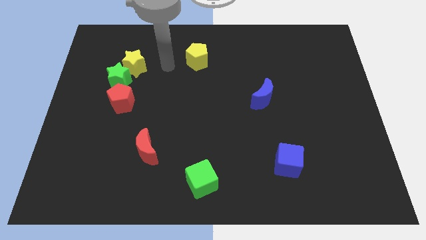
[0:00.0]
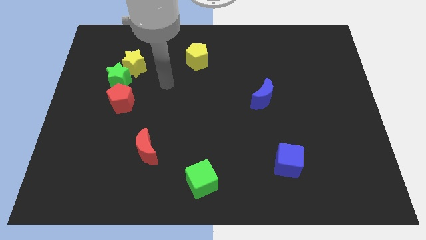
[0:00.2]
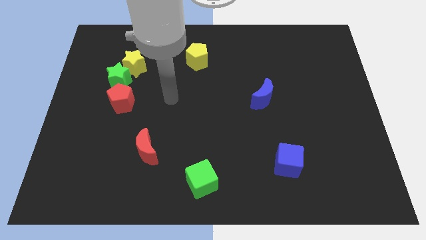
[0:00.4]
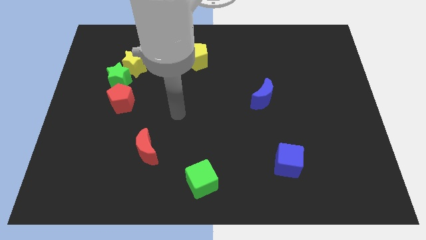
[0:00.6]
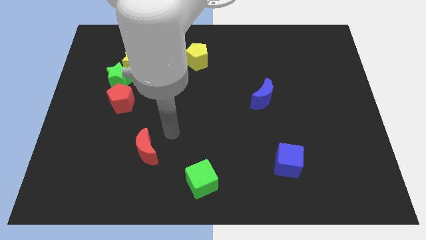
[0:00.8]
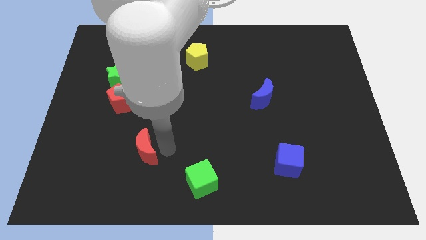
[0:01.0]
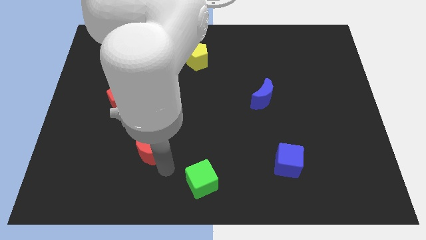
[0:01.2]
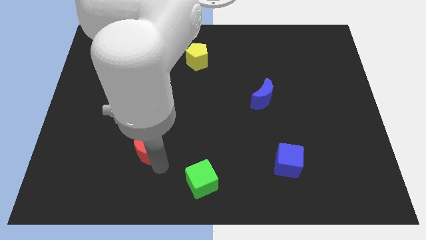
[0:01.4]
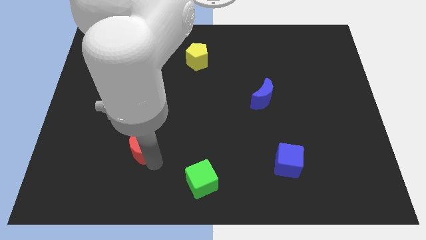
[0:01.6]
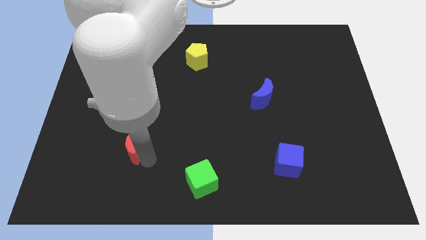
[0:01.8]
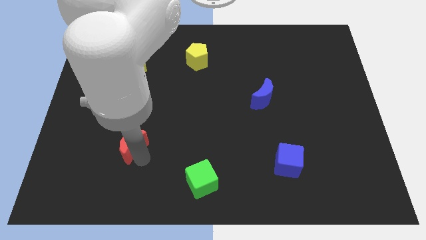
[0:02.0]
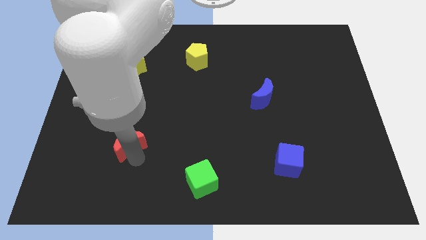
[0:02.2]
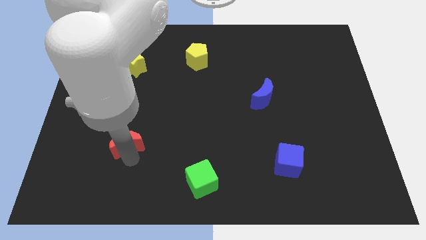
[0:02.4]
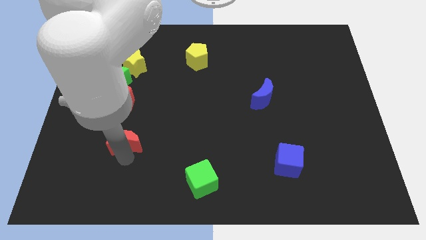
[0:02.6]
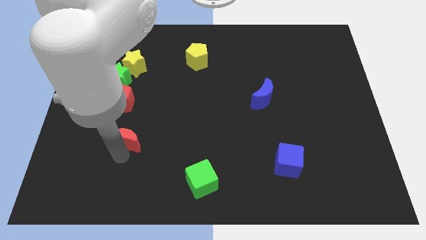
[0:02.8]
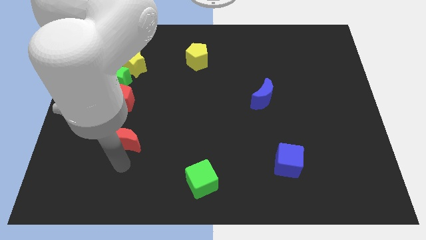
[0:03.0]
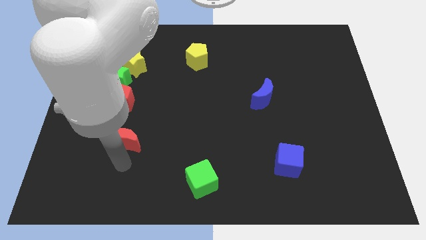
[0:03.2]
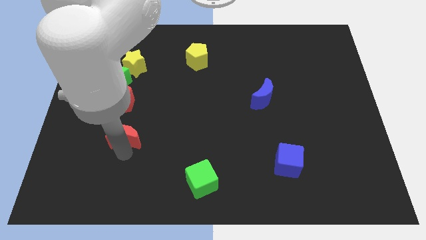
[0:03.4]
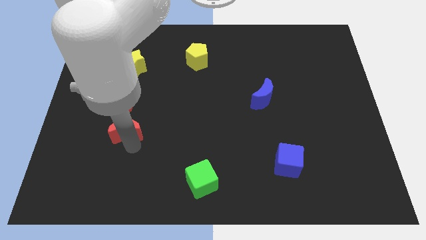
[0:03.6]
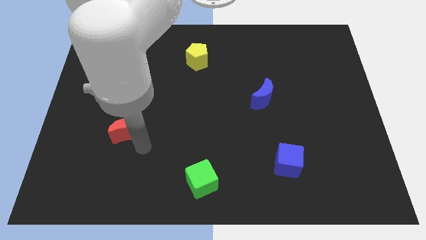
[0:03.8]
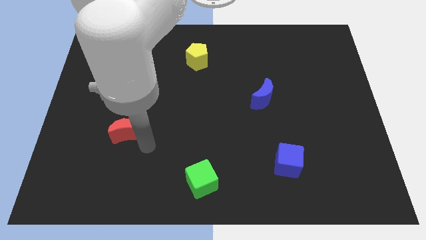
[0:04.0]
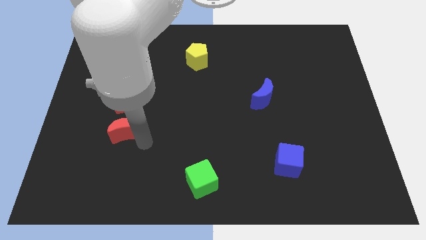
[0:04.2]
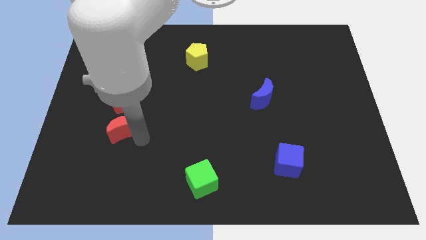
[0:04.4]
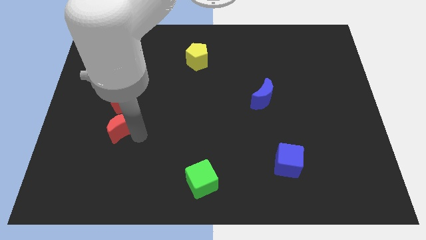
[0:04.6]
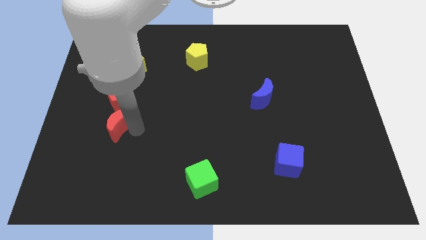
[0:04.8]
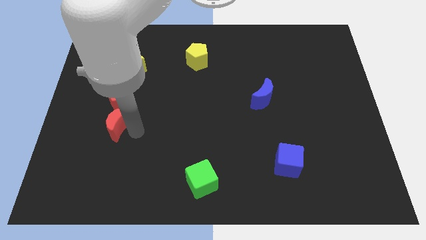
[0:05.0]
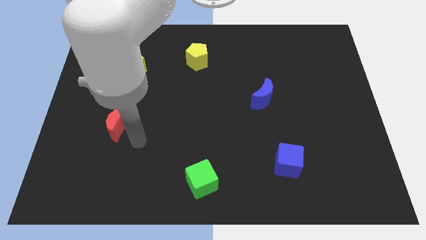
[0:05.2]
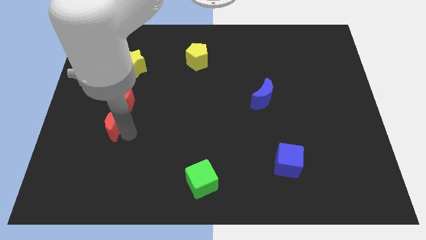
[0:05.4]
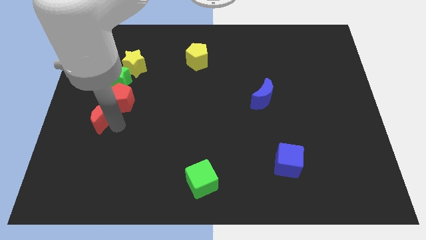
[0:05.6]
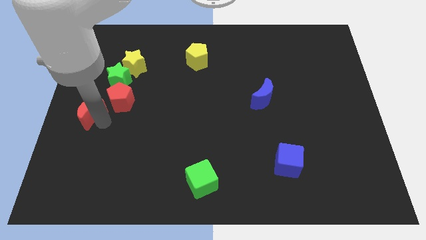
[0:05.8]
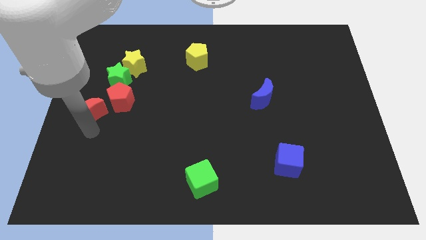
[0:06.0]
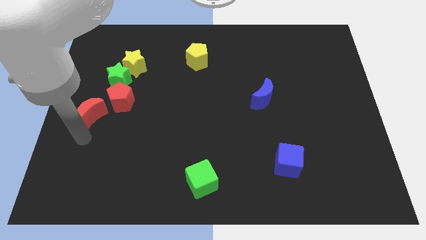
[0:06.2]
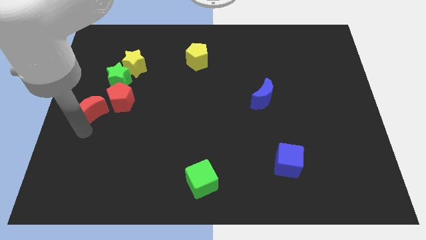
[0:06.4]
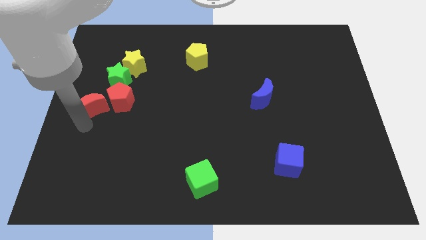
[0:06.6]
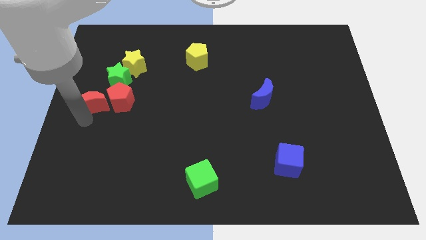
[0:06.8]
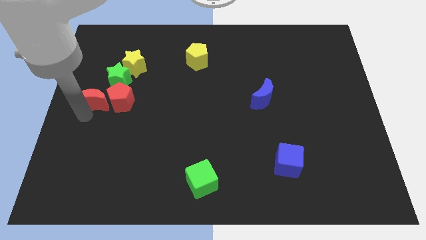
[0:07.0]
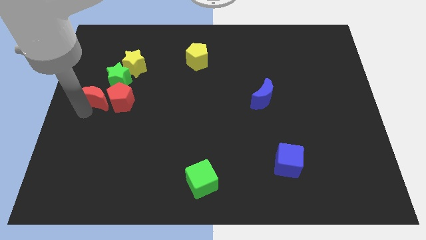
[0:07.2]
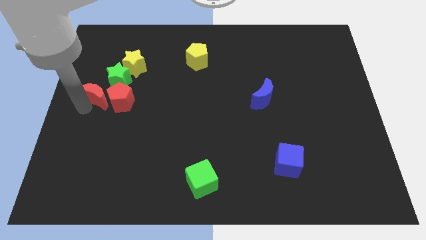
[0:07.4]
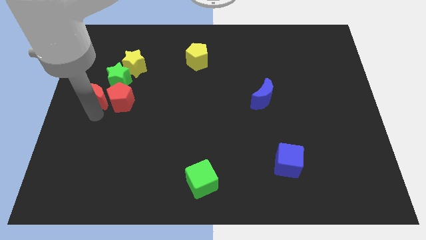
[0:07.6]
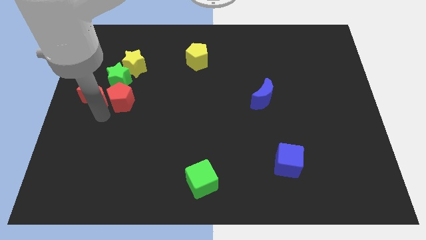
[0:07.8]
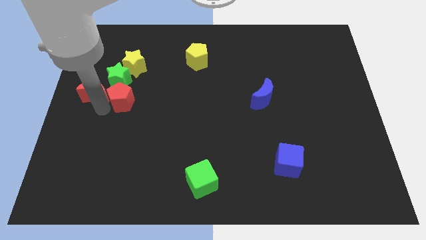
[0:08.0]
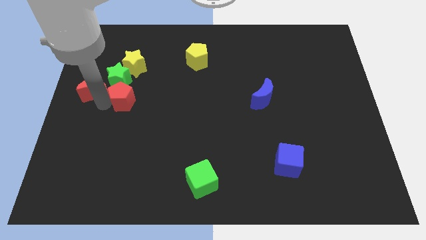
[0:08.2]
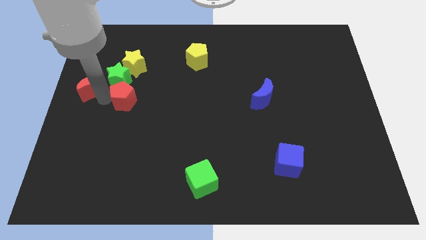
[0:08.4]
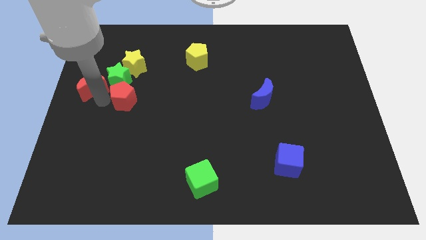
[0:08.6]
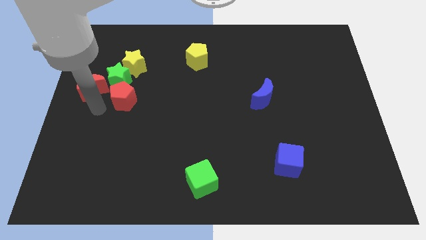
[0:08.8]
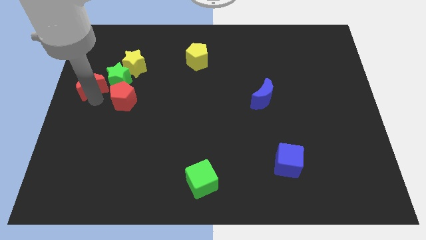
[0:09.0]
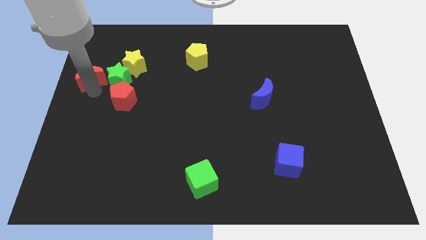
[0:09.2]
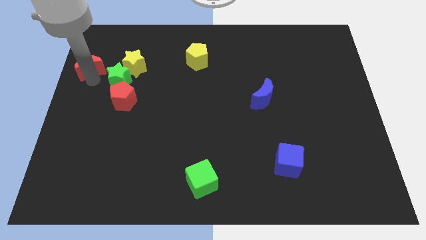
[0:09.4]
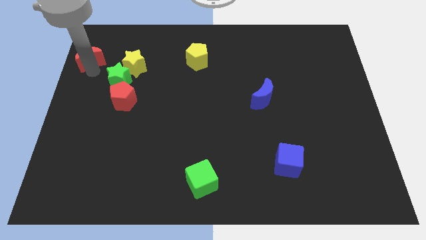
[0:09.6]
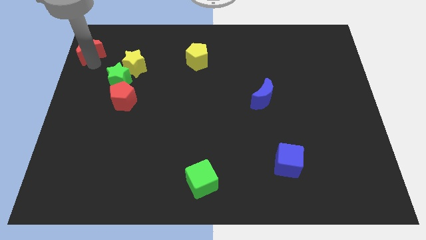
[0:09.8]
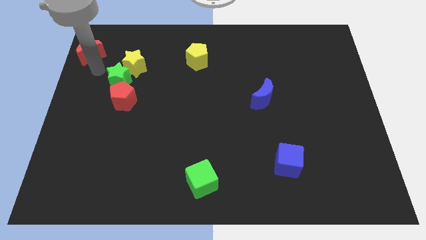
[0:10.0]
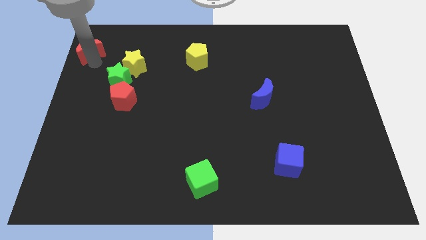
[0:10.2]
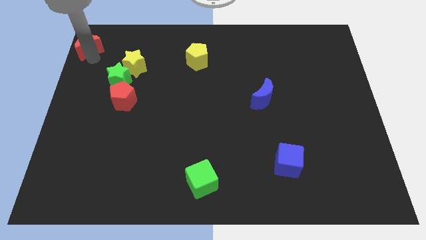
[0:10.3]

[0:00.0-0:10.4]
slide the red moon to the top left corner

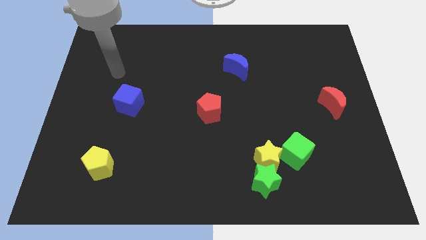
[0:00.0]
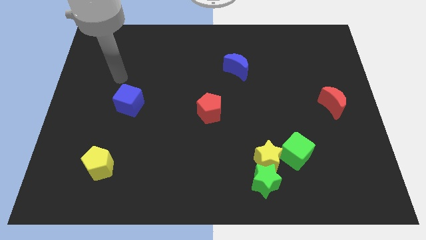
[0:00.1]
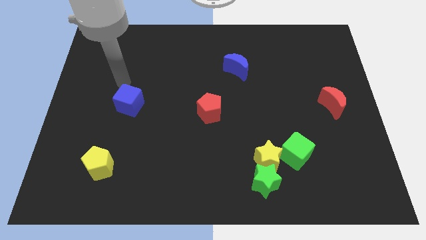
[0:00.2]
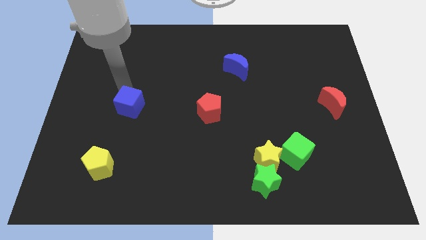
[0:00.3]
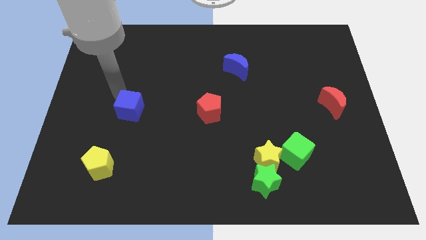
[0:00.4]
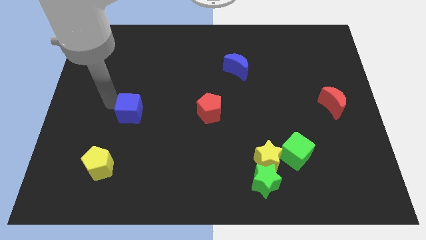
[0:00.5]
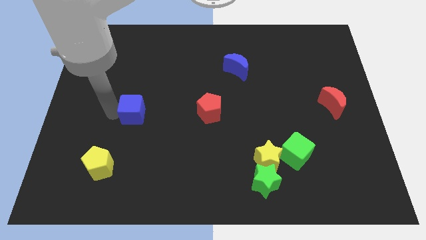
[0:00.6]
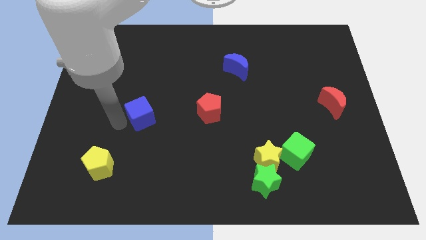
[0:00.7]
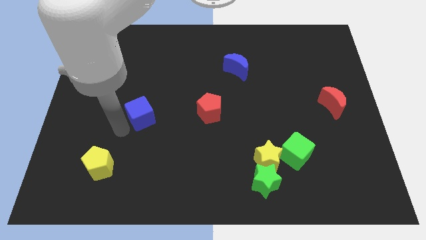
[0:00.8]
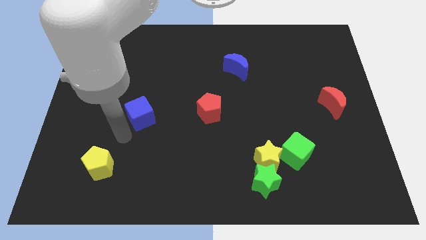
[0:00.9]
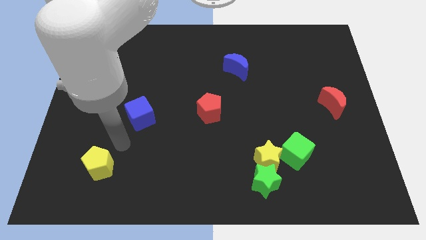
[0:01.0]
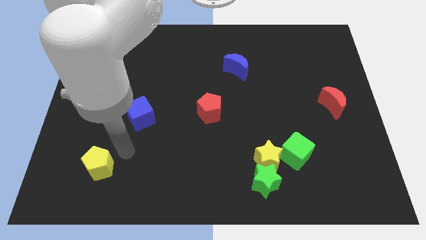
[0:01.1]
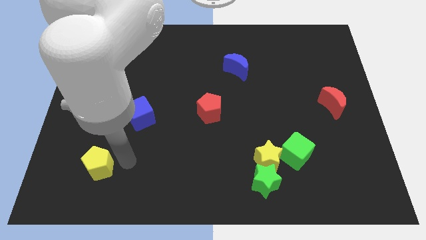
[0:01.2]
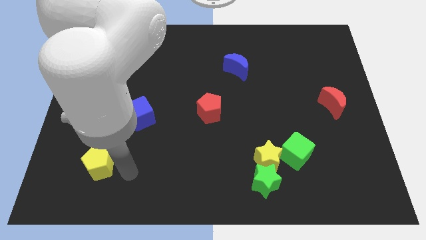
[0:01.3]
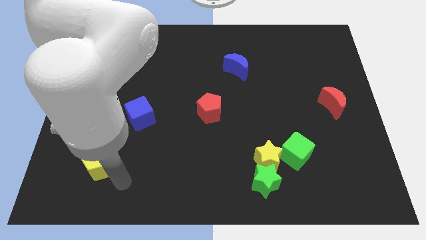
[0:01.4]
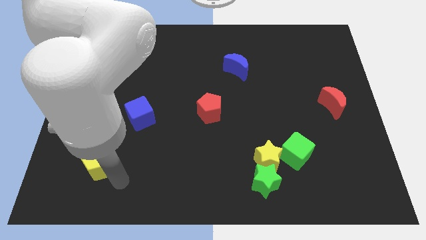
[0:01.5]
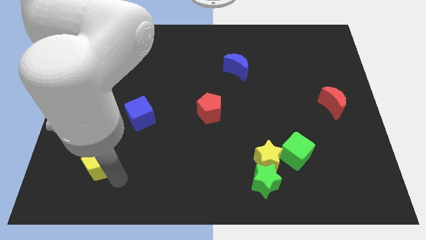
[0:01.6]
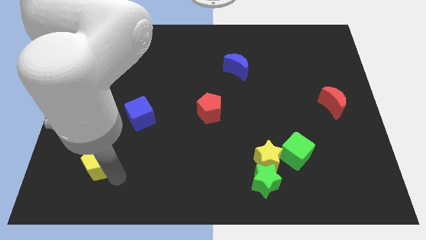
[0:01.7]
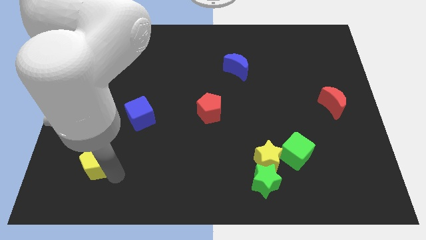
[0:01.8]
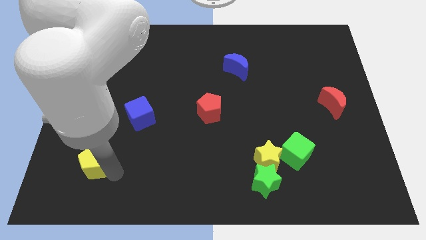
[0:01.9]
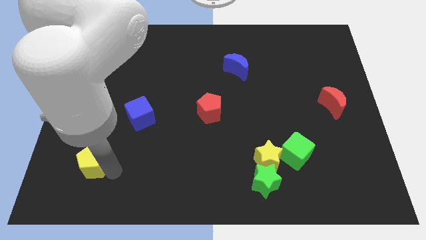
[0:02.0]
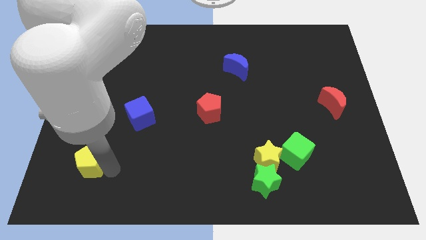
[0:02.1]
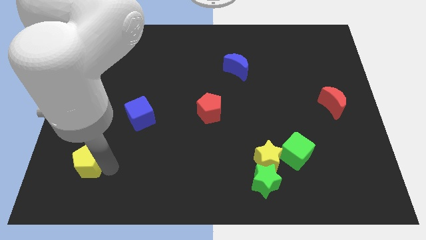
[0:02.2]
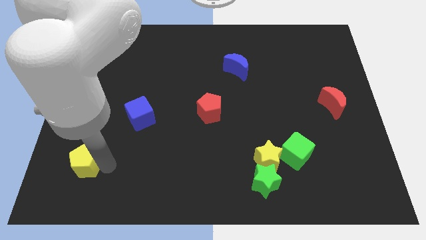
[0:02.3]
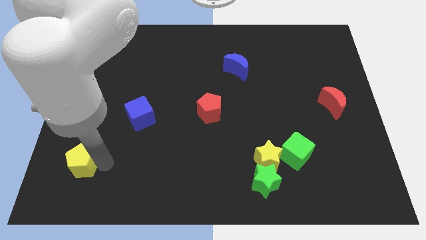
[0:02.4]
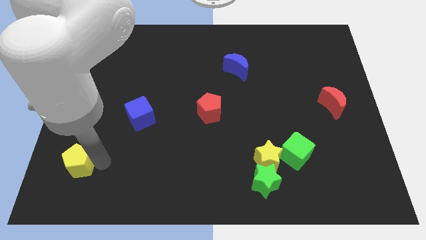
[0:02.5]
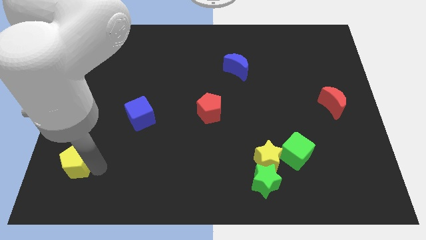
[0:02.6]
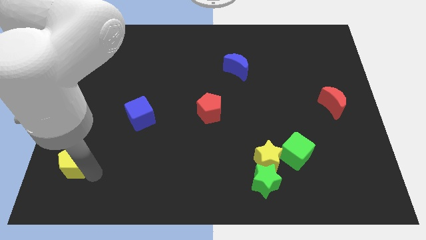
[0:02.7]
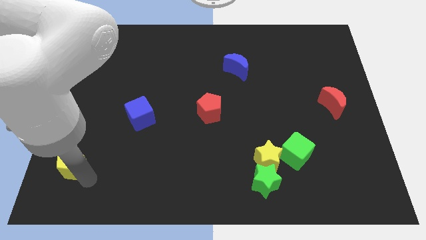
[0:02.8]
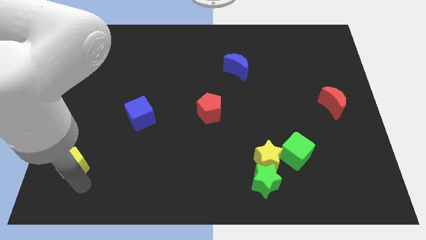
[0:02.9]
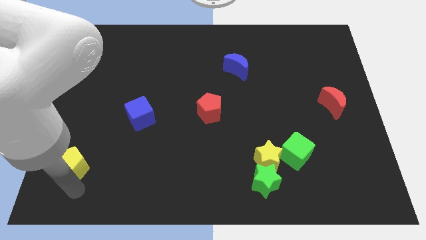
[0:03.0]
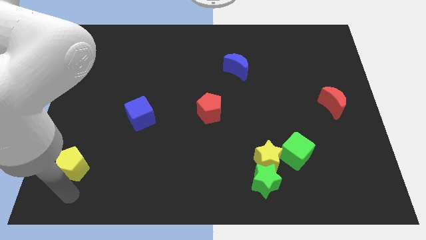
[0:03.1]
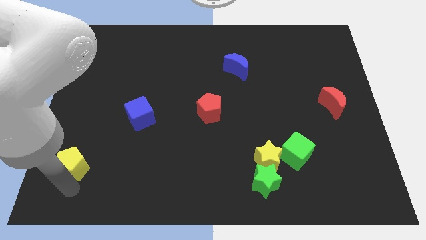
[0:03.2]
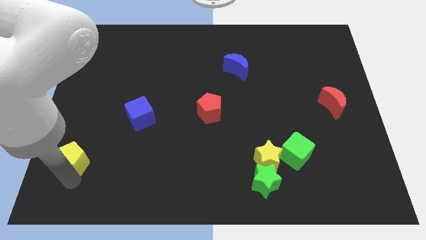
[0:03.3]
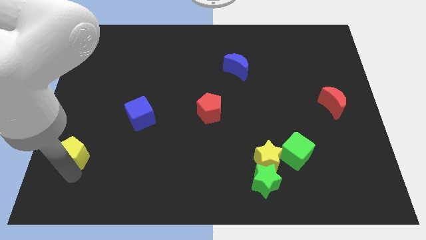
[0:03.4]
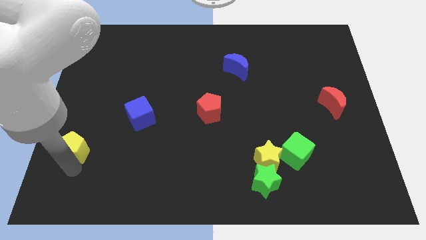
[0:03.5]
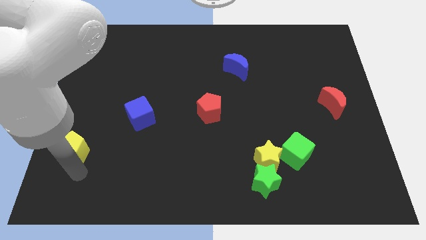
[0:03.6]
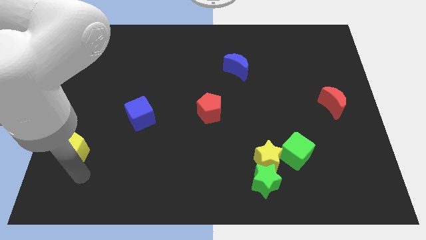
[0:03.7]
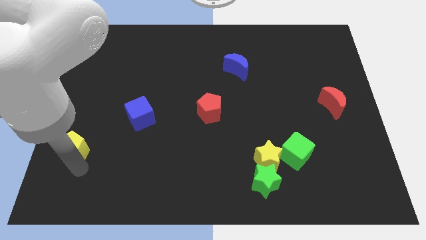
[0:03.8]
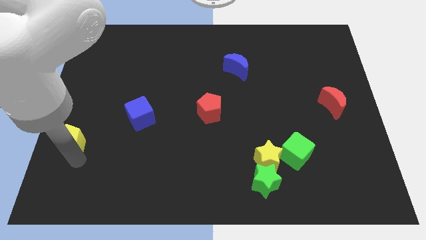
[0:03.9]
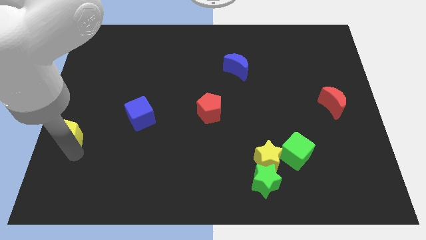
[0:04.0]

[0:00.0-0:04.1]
push the yellow pentagon to the left side
